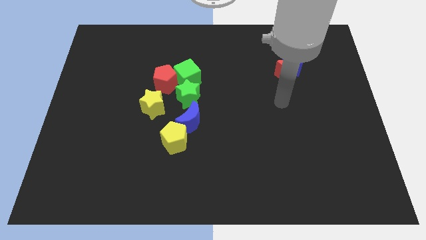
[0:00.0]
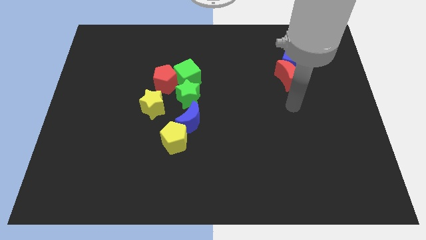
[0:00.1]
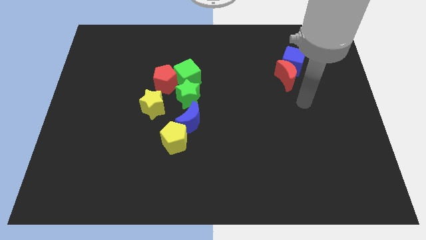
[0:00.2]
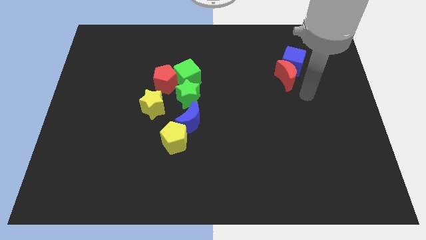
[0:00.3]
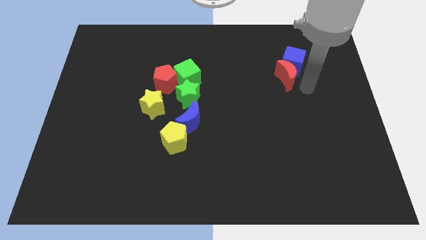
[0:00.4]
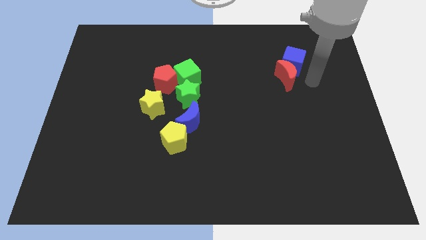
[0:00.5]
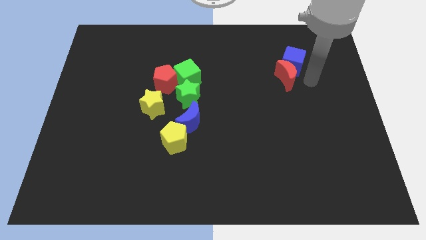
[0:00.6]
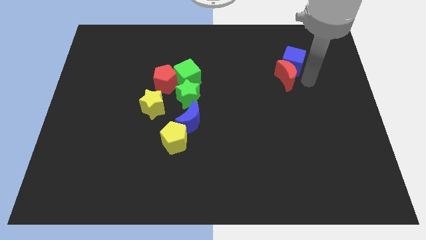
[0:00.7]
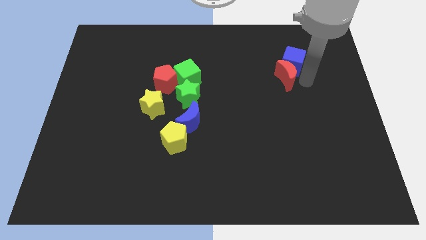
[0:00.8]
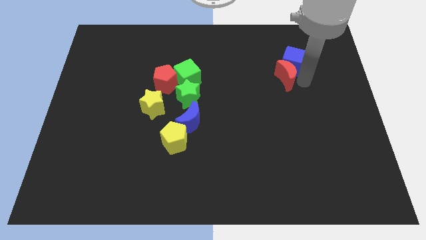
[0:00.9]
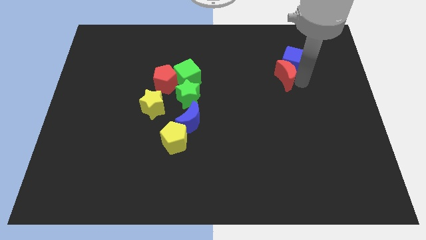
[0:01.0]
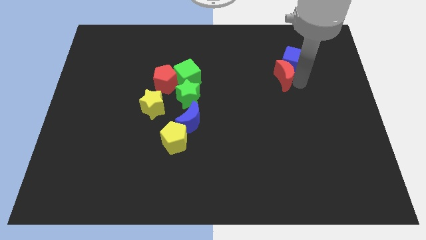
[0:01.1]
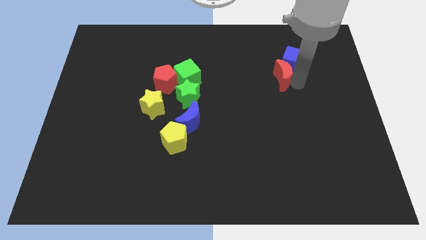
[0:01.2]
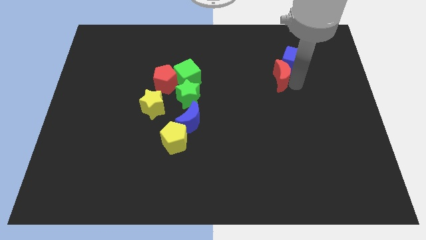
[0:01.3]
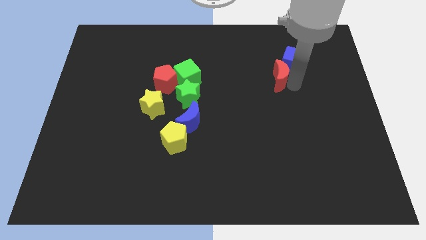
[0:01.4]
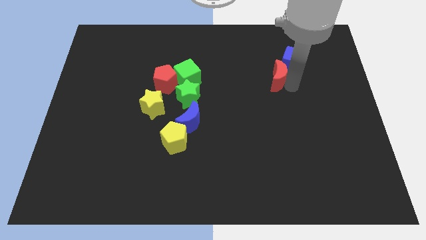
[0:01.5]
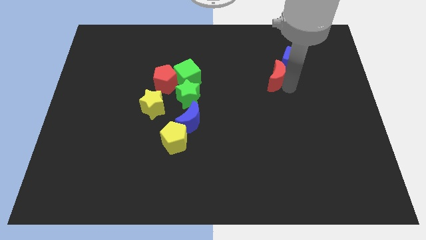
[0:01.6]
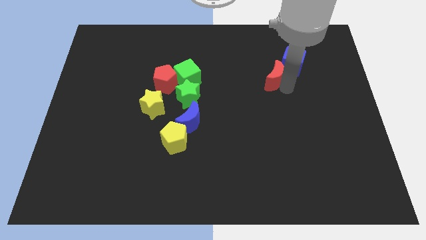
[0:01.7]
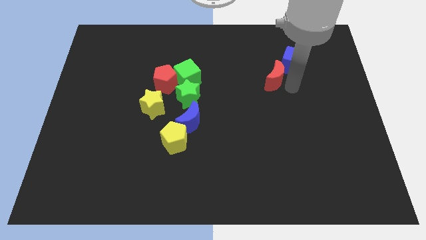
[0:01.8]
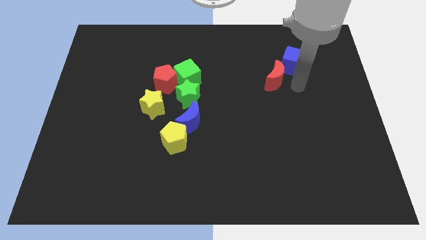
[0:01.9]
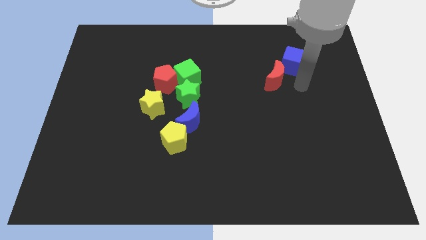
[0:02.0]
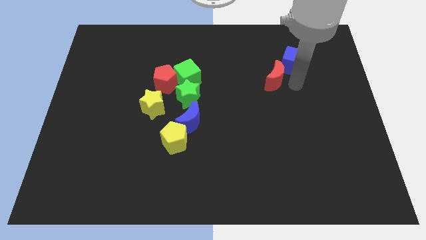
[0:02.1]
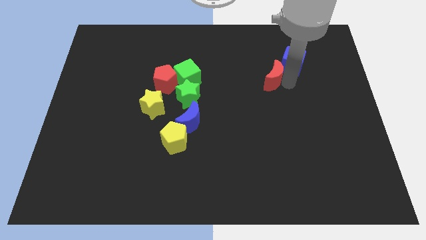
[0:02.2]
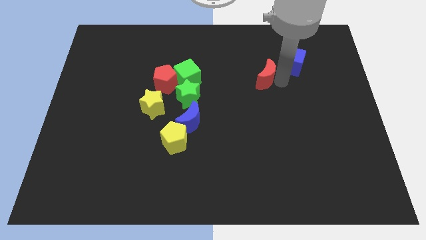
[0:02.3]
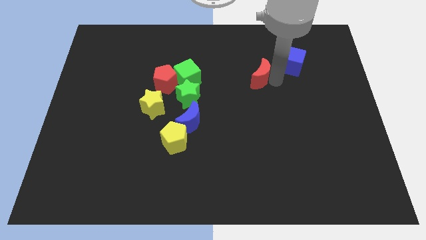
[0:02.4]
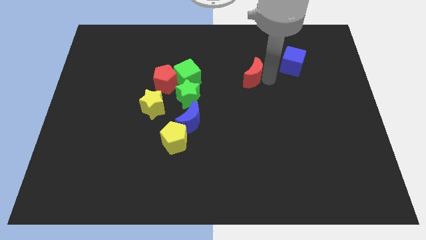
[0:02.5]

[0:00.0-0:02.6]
slightly push the red moon left

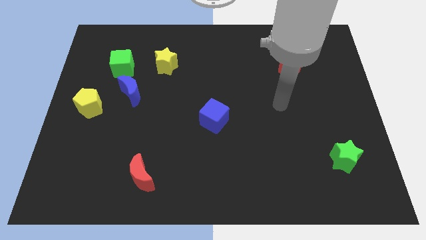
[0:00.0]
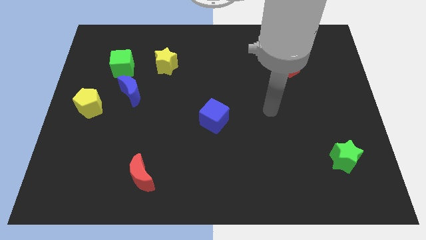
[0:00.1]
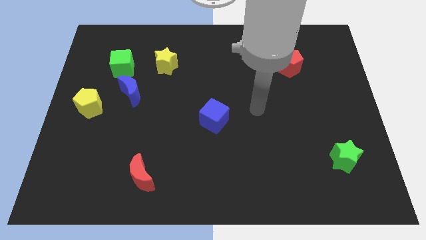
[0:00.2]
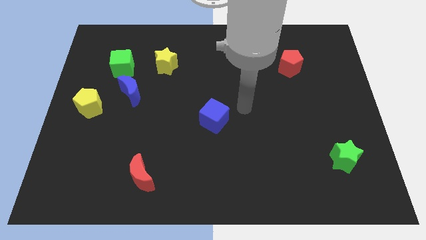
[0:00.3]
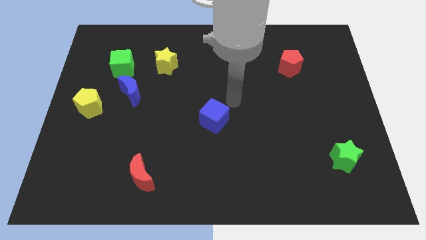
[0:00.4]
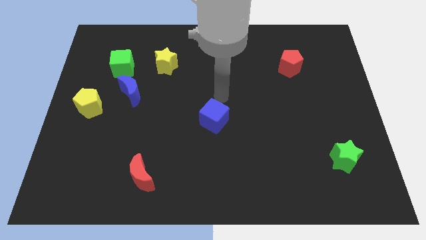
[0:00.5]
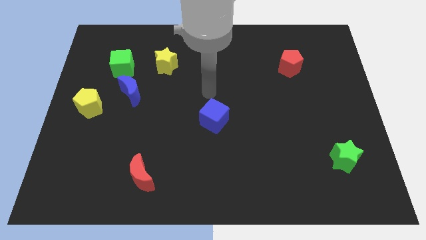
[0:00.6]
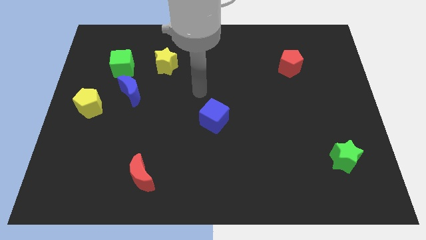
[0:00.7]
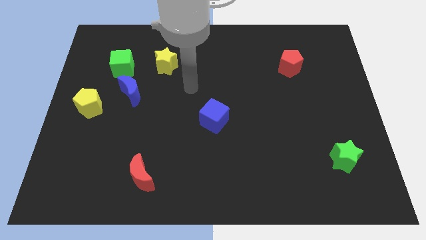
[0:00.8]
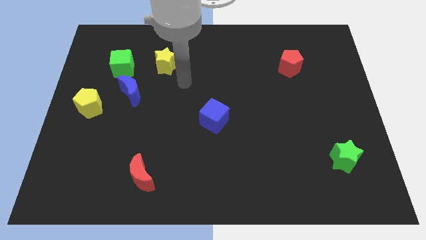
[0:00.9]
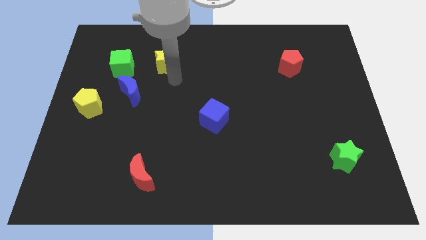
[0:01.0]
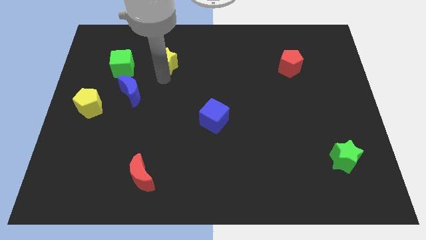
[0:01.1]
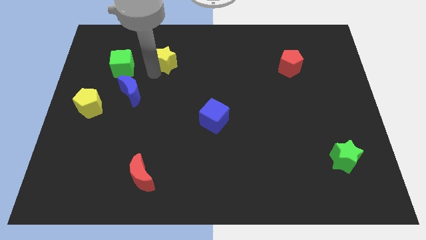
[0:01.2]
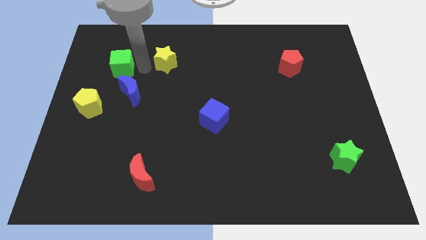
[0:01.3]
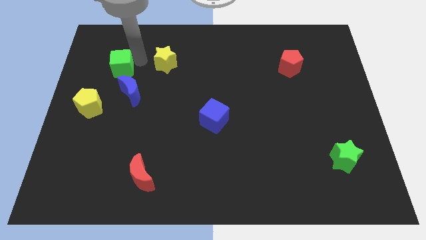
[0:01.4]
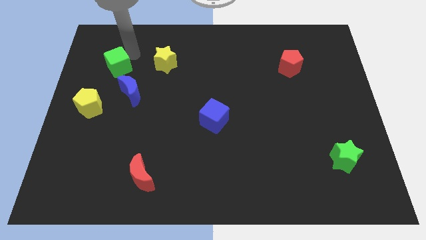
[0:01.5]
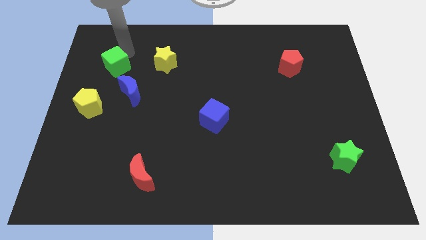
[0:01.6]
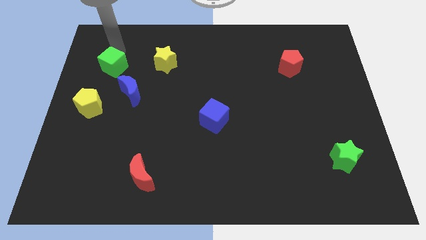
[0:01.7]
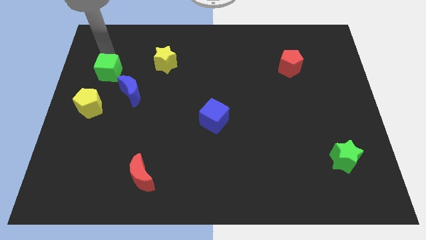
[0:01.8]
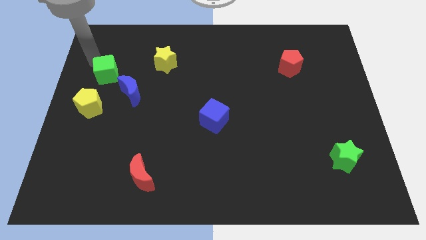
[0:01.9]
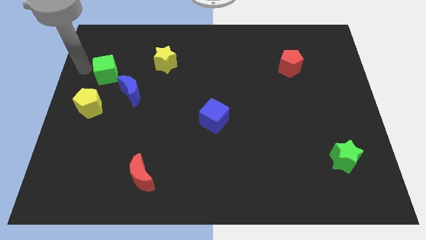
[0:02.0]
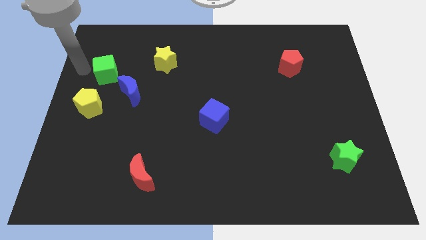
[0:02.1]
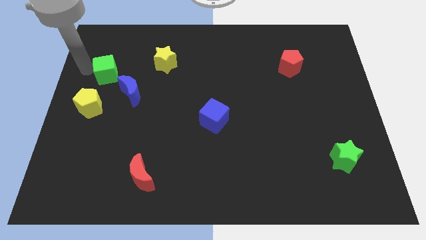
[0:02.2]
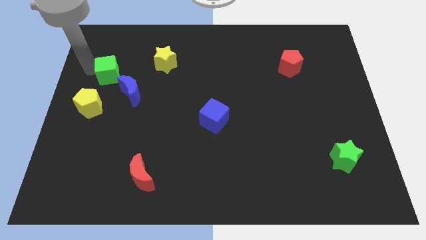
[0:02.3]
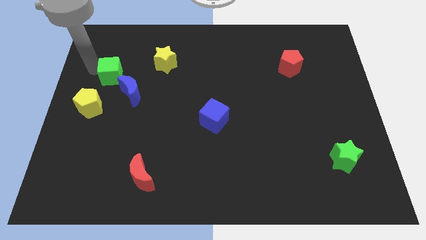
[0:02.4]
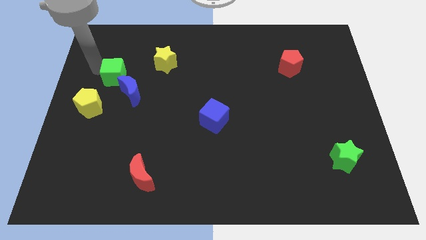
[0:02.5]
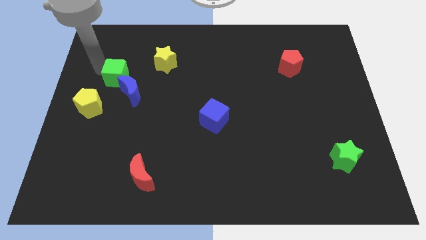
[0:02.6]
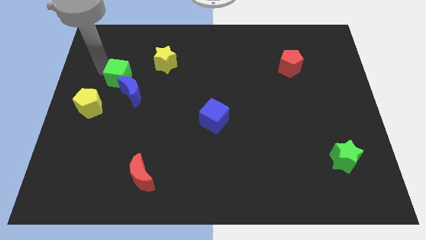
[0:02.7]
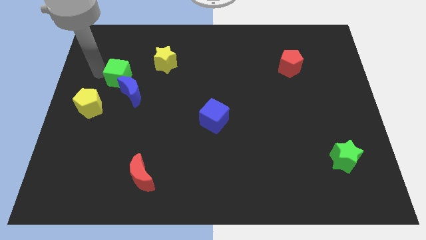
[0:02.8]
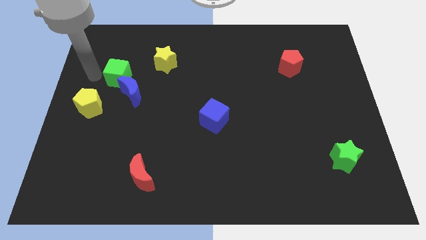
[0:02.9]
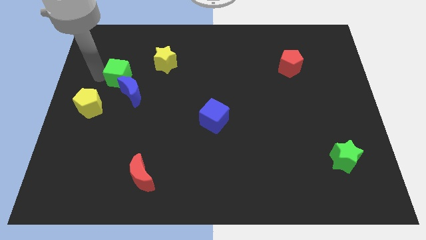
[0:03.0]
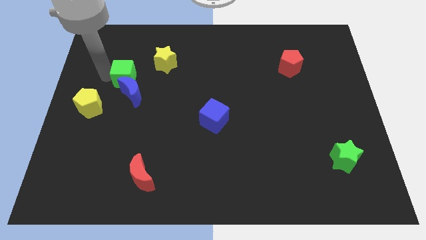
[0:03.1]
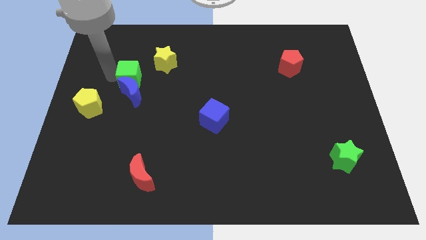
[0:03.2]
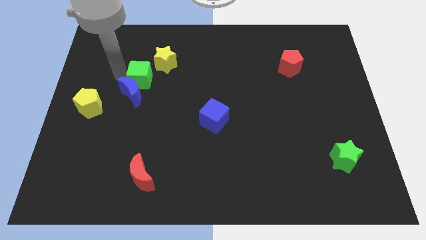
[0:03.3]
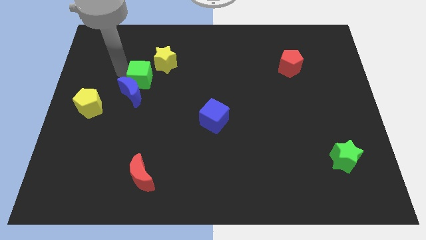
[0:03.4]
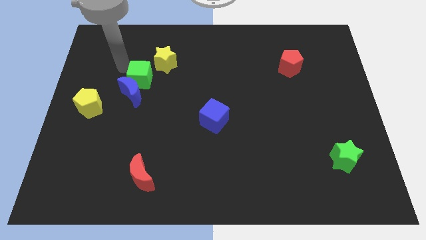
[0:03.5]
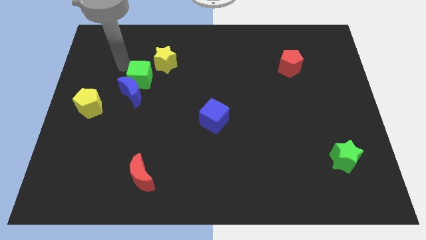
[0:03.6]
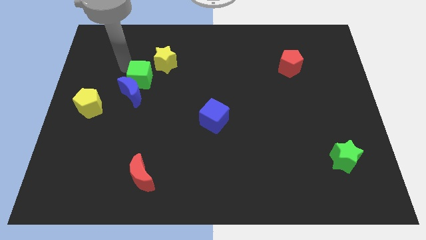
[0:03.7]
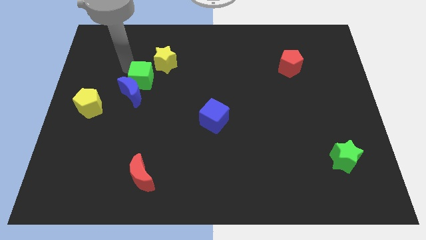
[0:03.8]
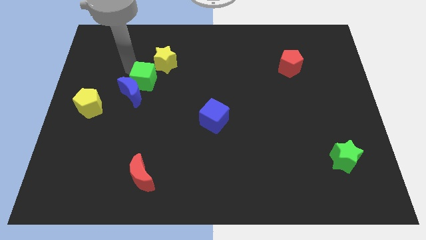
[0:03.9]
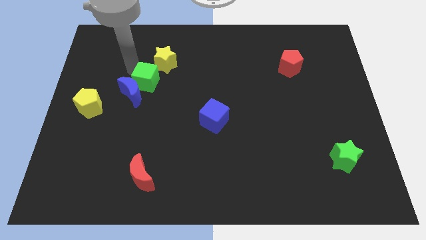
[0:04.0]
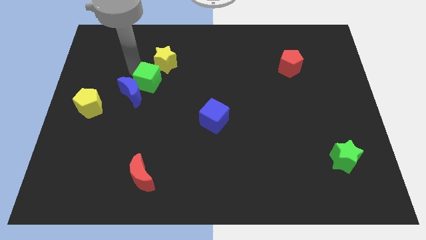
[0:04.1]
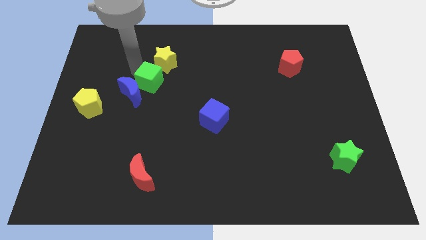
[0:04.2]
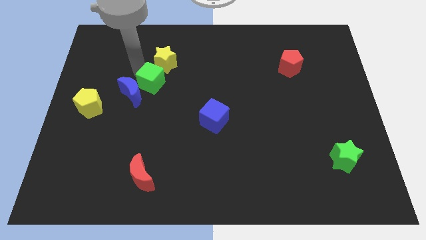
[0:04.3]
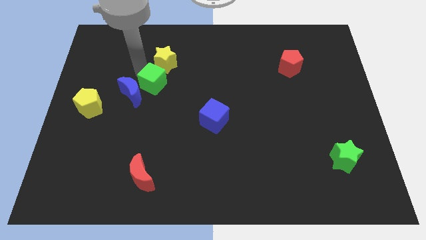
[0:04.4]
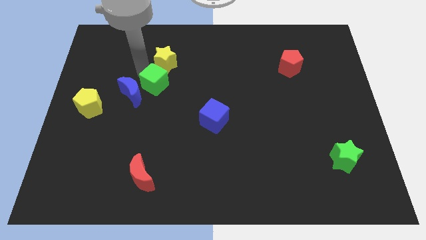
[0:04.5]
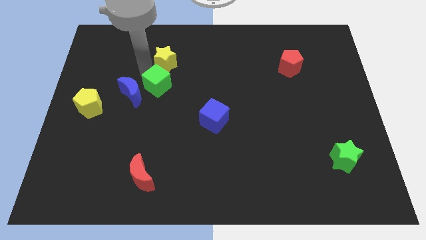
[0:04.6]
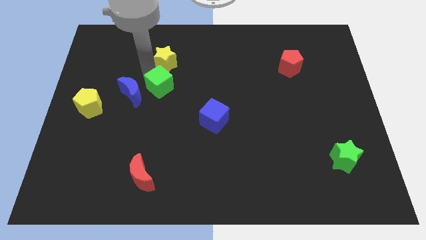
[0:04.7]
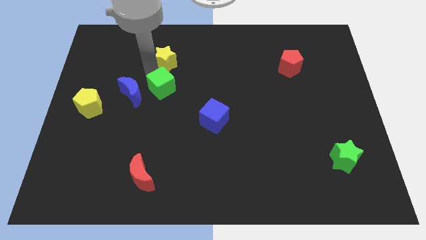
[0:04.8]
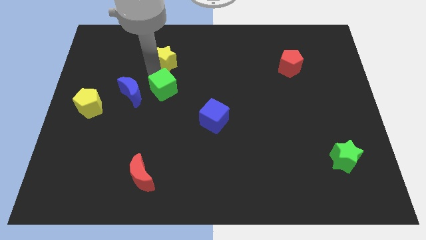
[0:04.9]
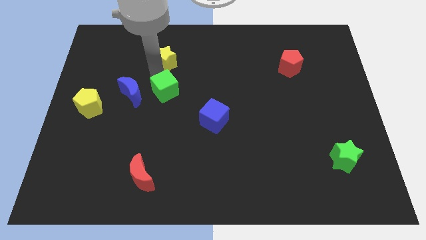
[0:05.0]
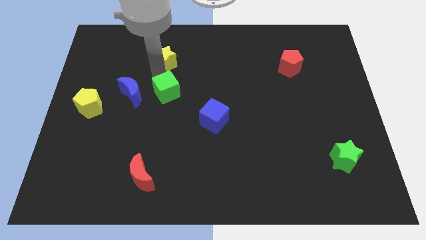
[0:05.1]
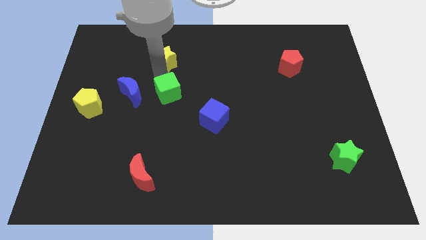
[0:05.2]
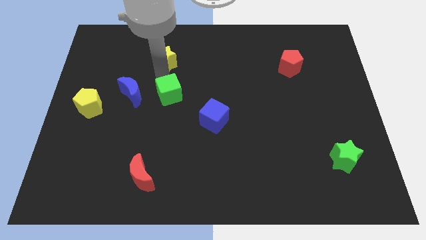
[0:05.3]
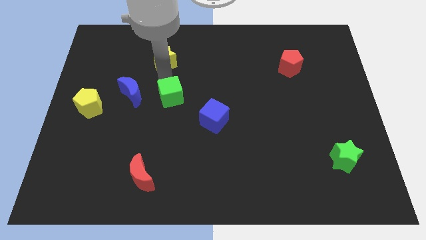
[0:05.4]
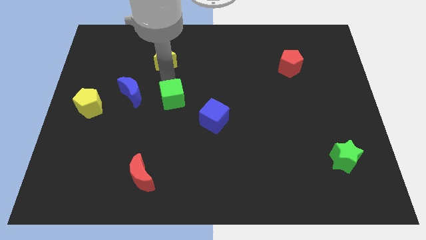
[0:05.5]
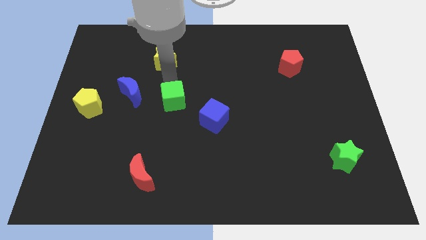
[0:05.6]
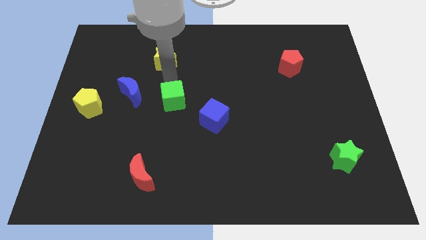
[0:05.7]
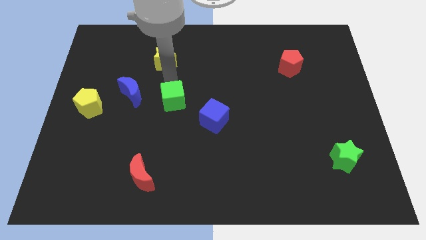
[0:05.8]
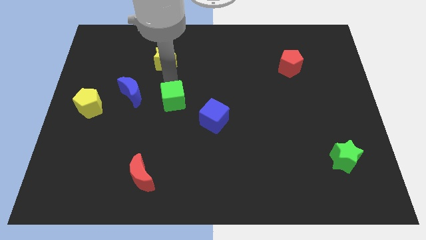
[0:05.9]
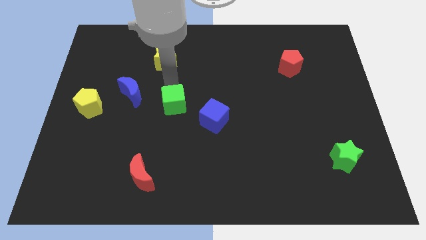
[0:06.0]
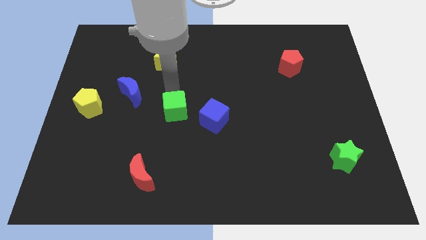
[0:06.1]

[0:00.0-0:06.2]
push the green cube diagonally down and to the right
